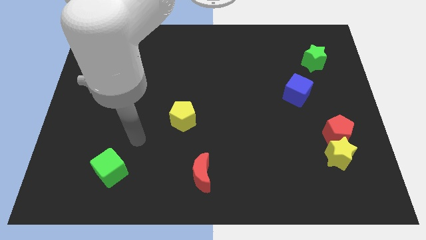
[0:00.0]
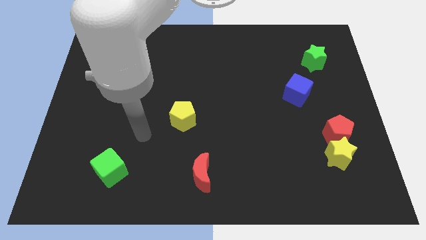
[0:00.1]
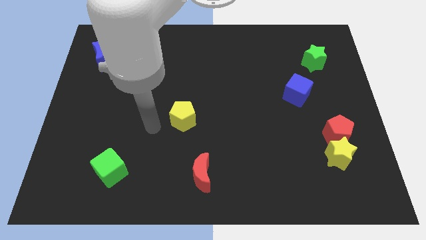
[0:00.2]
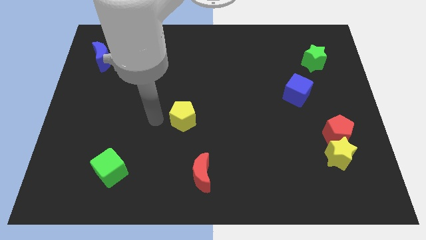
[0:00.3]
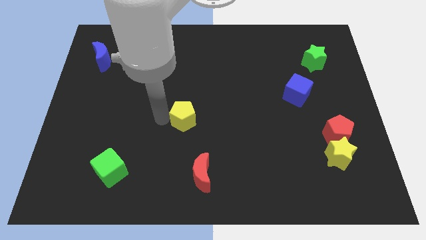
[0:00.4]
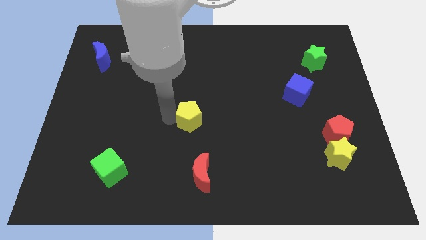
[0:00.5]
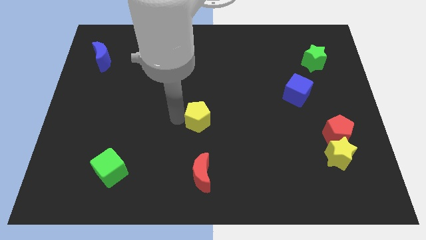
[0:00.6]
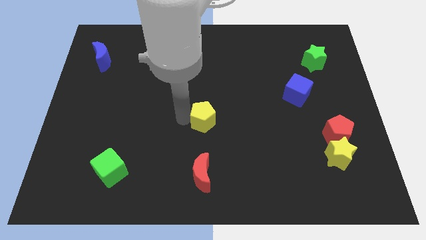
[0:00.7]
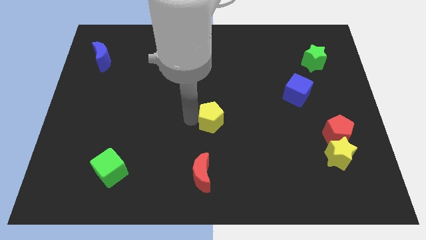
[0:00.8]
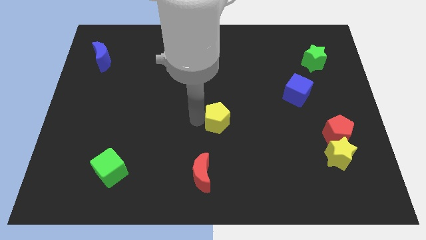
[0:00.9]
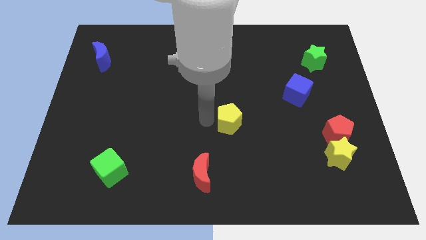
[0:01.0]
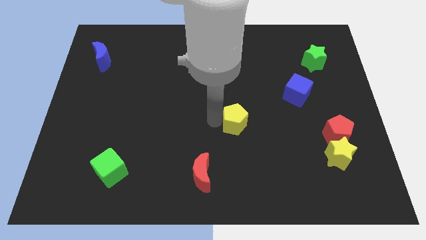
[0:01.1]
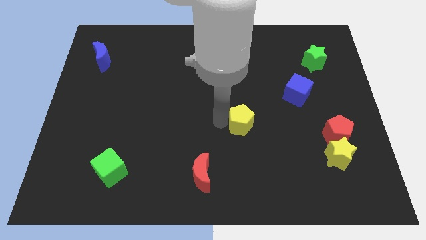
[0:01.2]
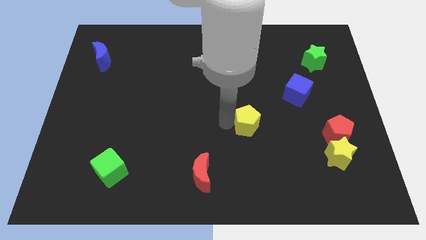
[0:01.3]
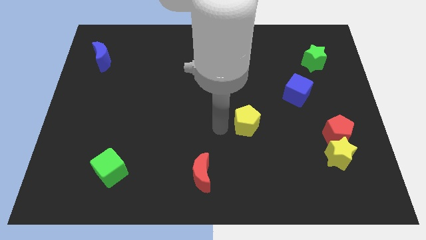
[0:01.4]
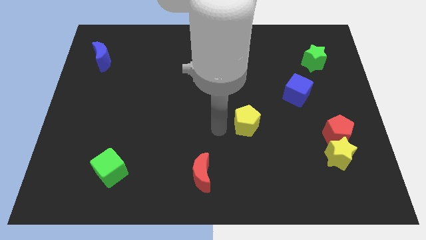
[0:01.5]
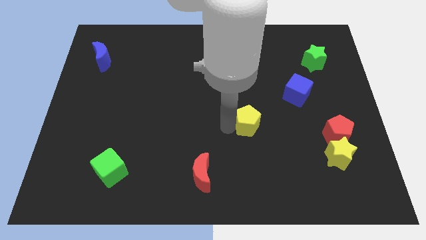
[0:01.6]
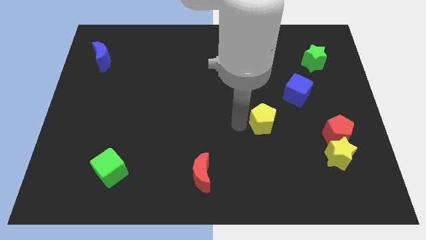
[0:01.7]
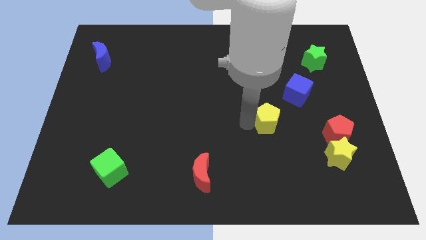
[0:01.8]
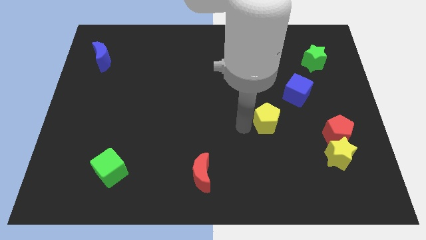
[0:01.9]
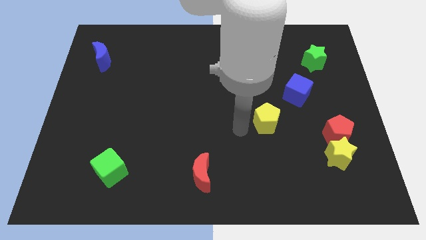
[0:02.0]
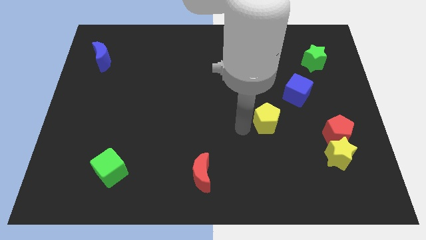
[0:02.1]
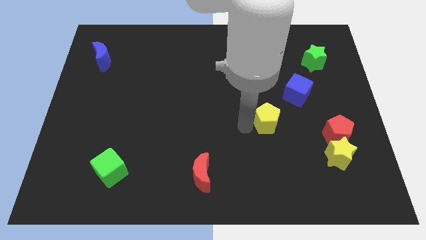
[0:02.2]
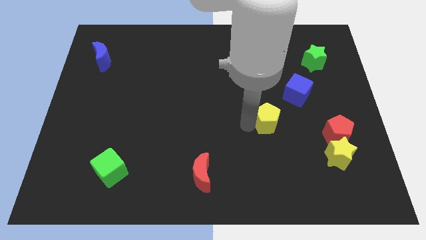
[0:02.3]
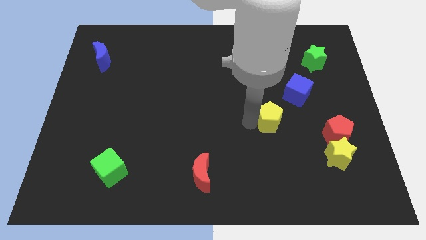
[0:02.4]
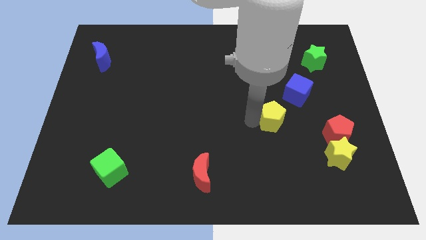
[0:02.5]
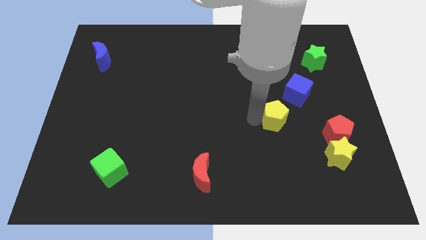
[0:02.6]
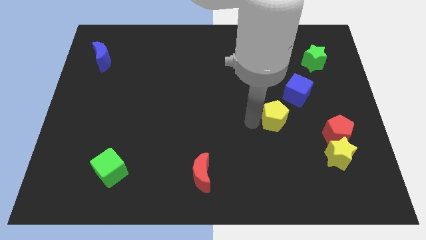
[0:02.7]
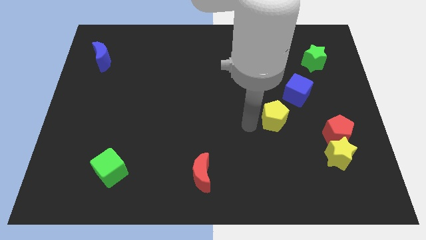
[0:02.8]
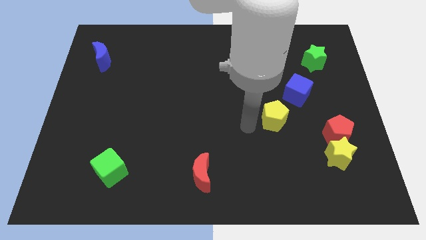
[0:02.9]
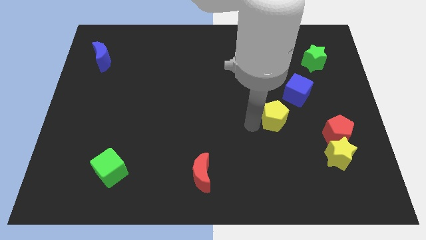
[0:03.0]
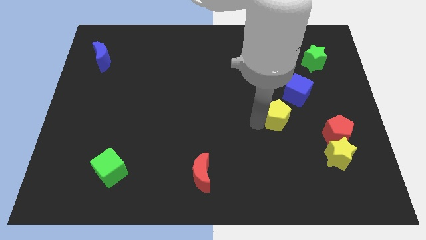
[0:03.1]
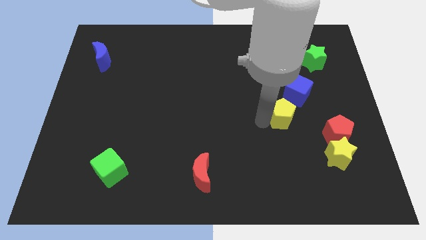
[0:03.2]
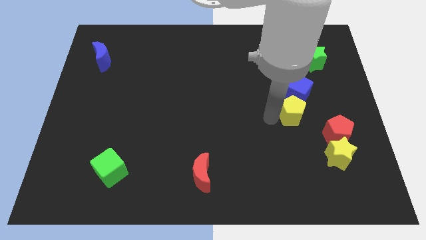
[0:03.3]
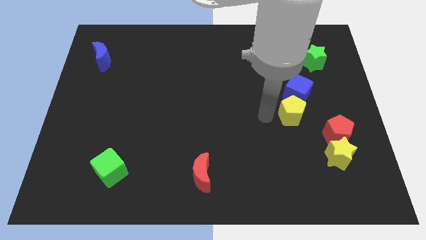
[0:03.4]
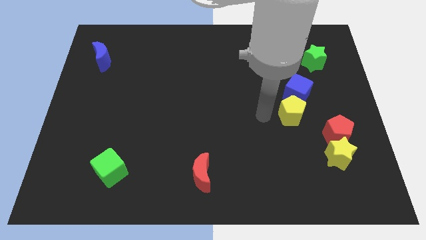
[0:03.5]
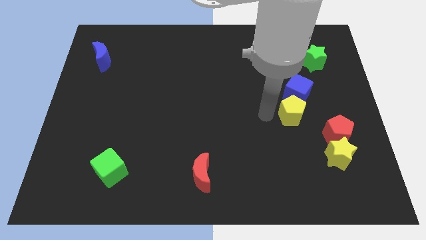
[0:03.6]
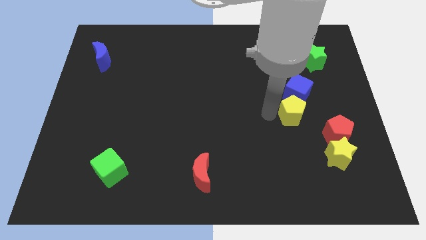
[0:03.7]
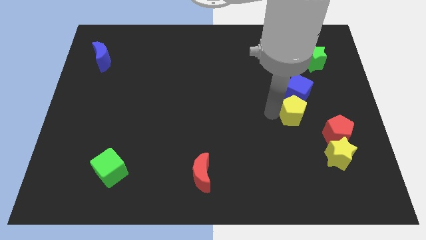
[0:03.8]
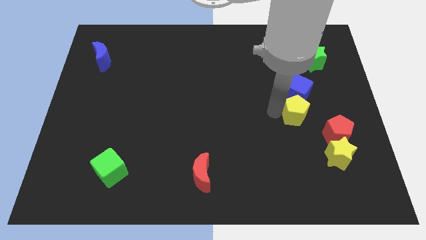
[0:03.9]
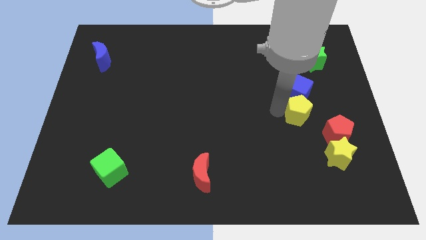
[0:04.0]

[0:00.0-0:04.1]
move the yellow pentagon diagonally down and to the right of the blue cube

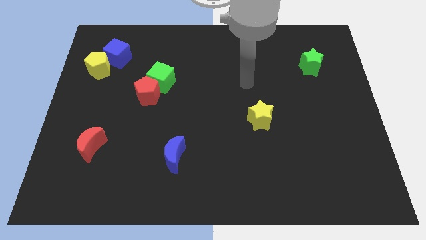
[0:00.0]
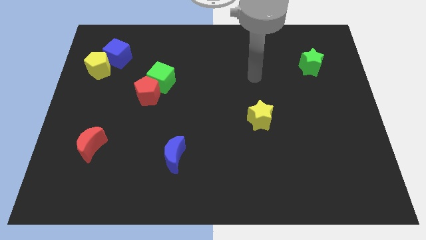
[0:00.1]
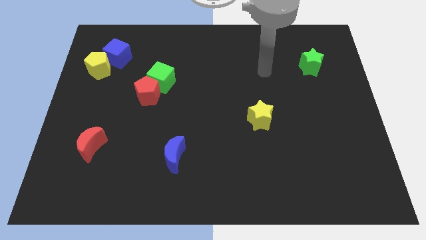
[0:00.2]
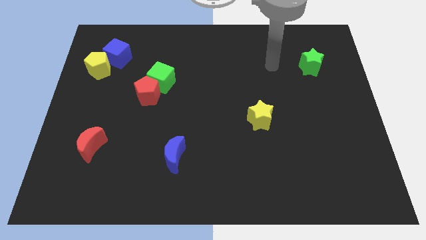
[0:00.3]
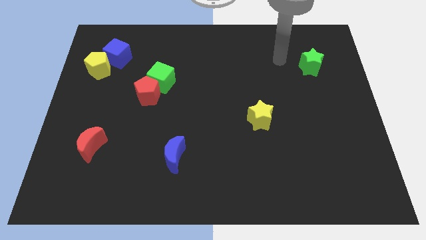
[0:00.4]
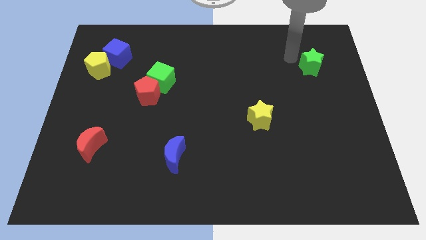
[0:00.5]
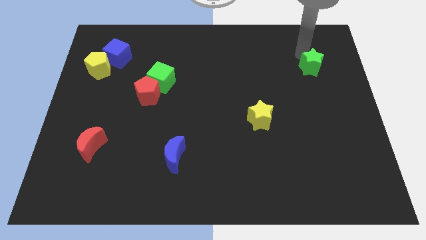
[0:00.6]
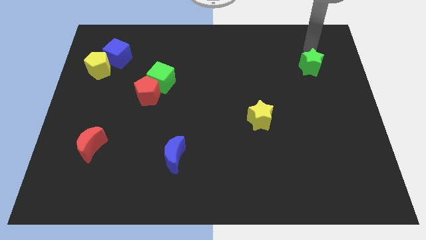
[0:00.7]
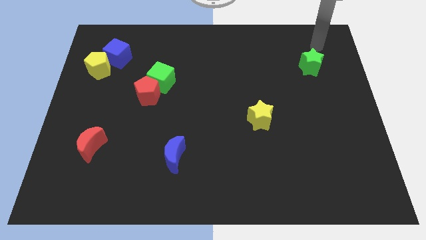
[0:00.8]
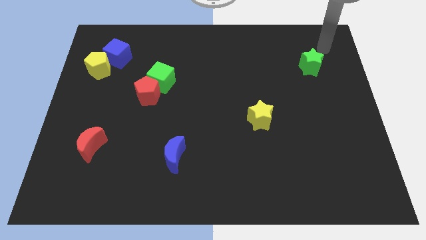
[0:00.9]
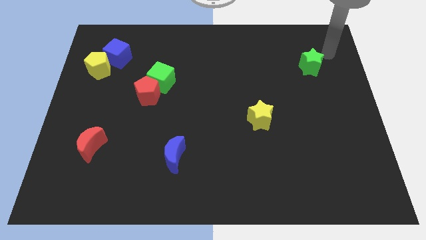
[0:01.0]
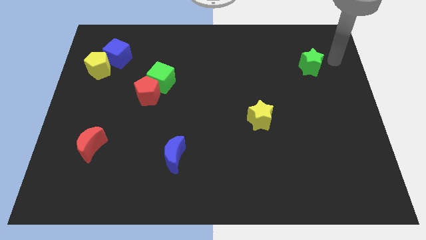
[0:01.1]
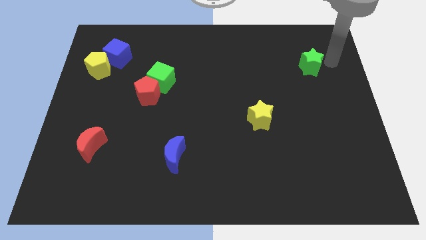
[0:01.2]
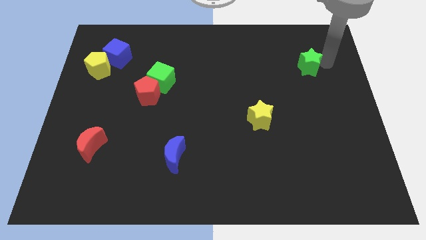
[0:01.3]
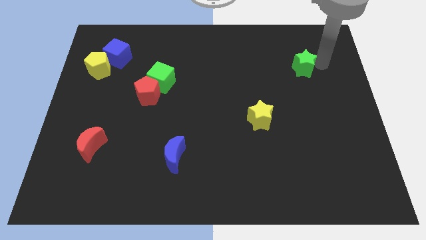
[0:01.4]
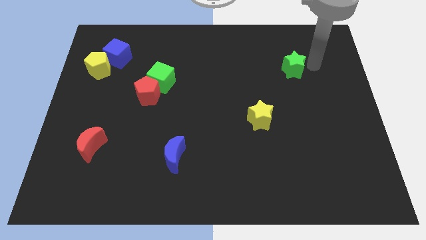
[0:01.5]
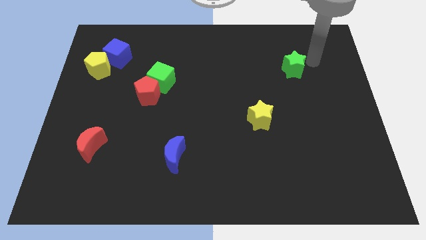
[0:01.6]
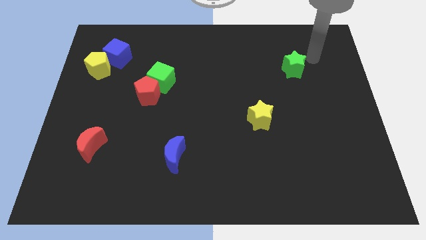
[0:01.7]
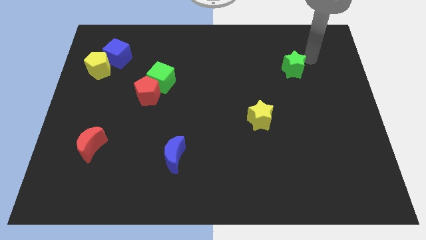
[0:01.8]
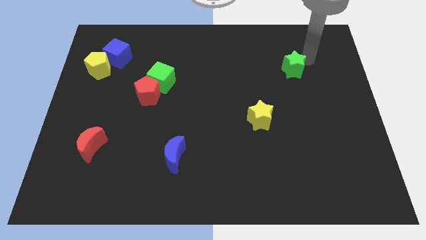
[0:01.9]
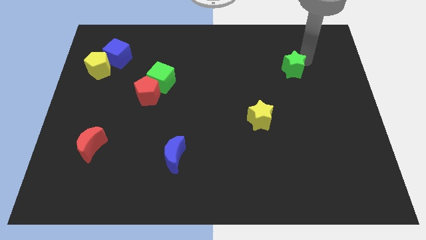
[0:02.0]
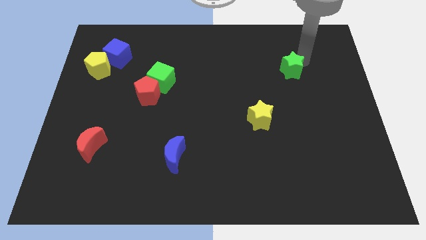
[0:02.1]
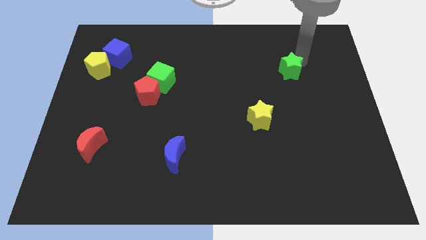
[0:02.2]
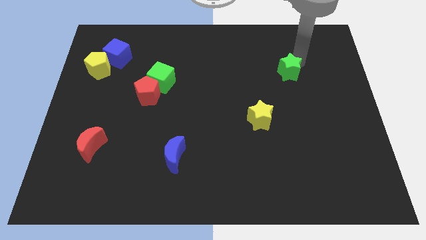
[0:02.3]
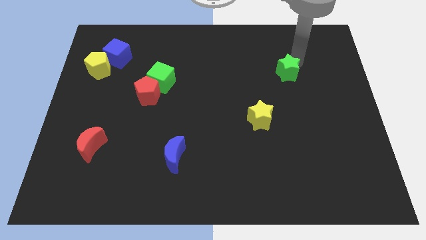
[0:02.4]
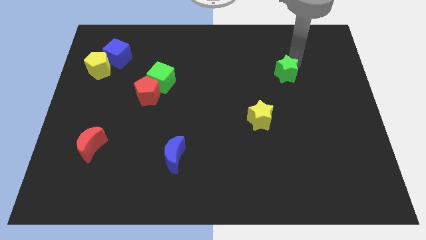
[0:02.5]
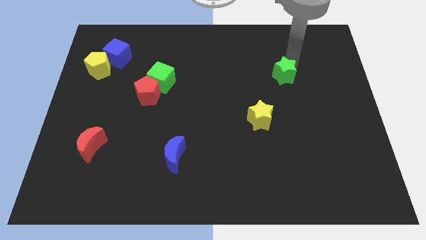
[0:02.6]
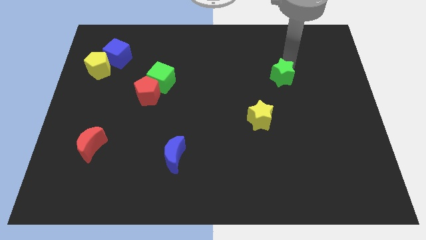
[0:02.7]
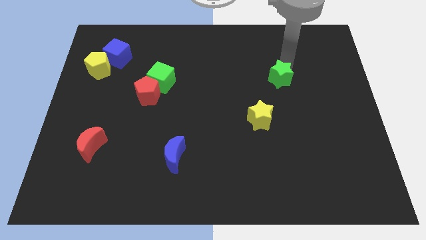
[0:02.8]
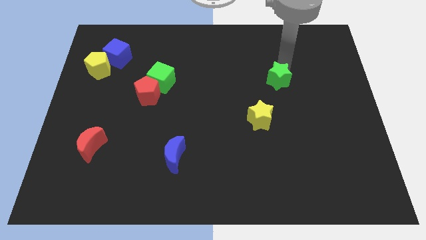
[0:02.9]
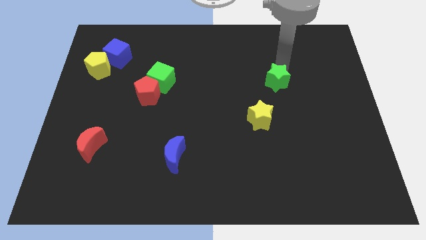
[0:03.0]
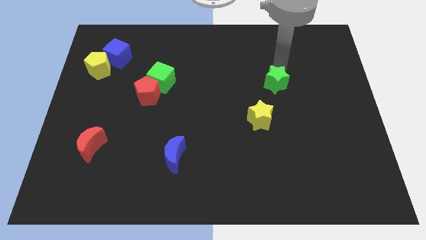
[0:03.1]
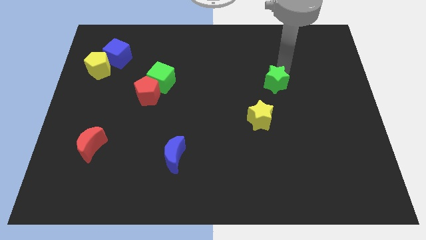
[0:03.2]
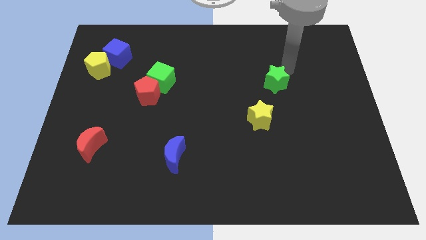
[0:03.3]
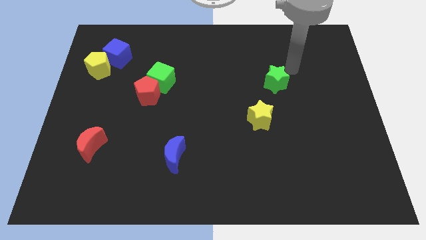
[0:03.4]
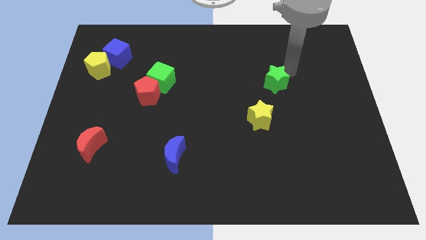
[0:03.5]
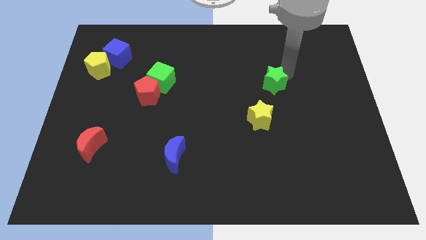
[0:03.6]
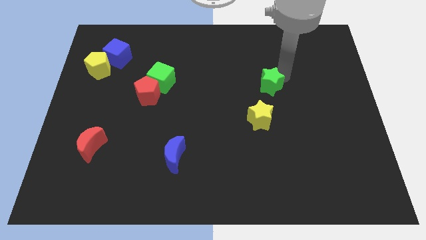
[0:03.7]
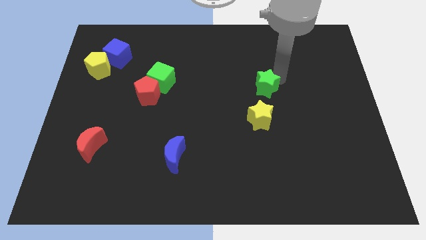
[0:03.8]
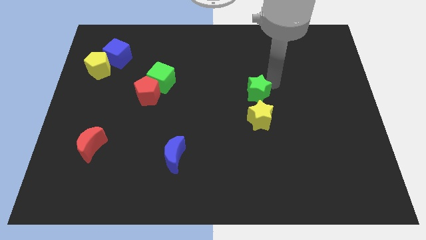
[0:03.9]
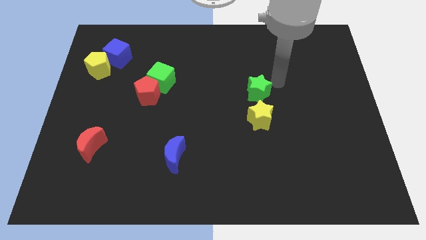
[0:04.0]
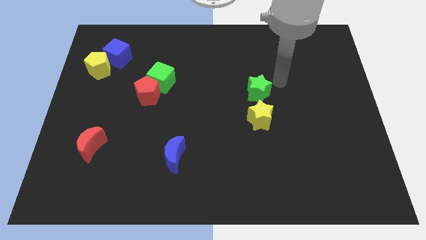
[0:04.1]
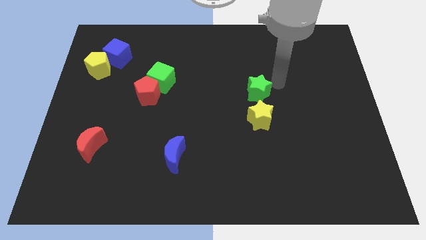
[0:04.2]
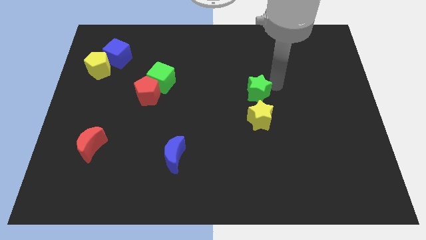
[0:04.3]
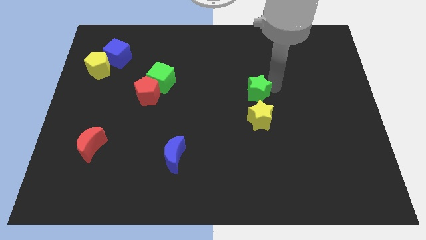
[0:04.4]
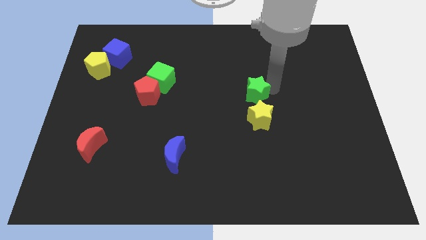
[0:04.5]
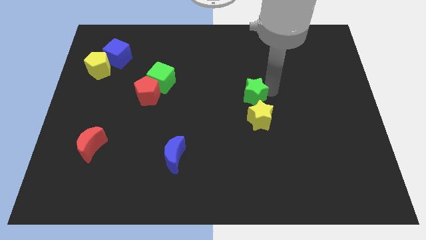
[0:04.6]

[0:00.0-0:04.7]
slide the green star diagonally up and to the left of the yellow star
